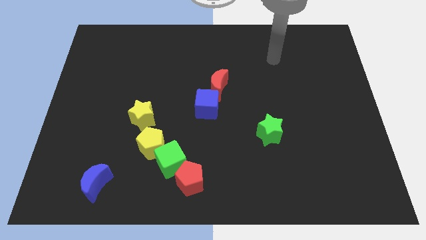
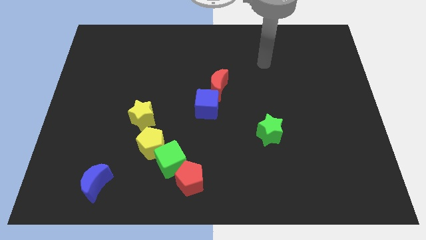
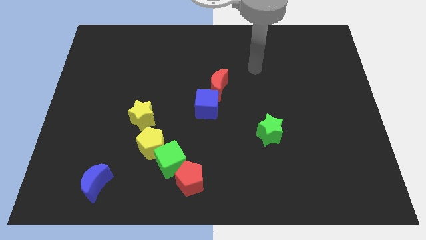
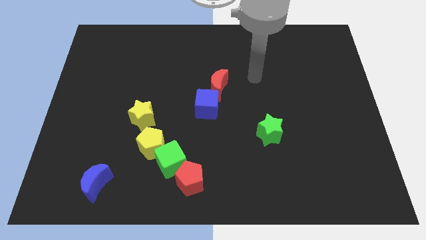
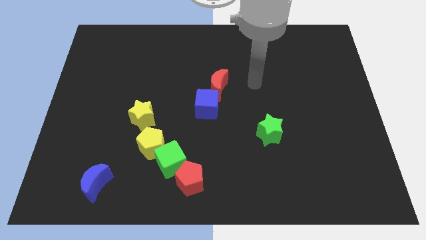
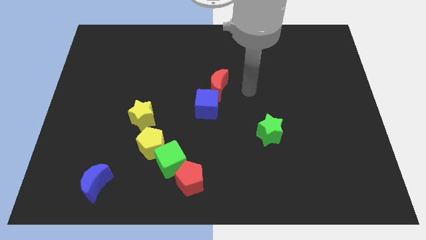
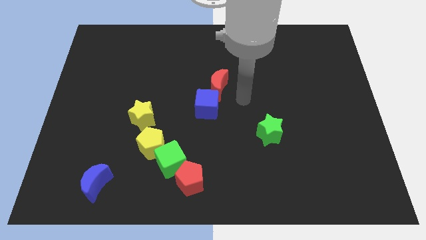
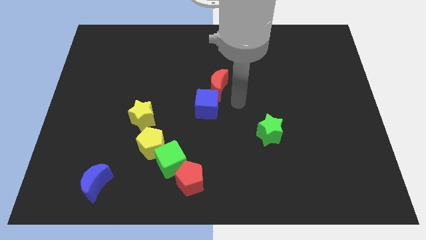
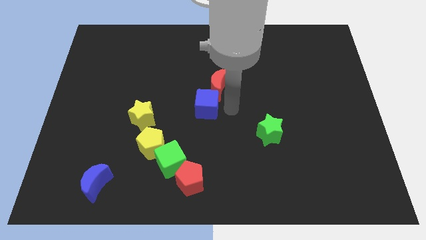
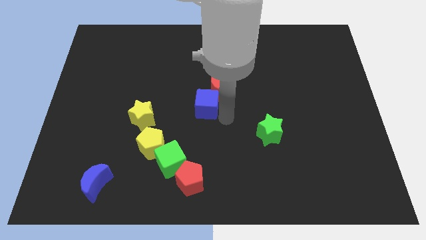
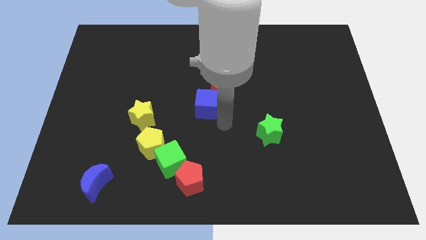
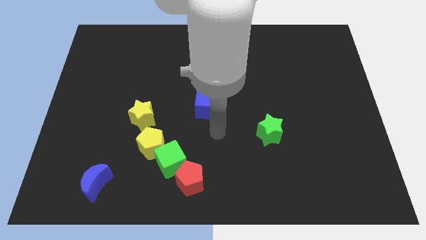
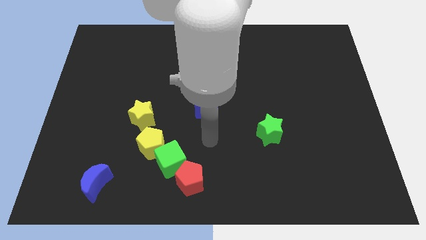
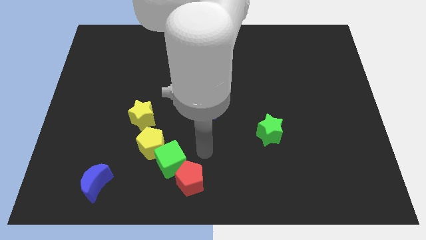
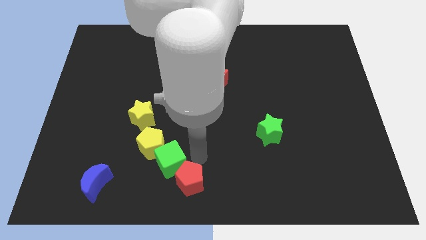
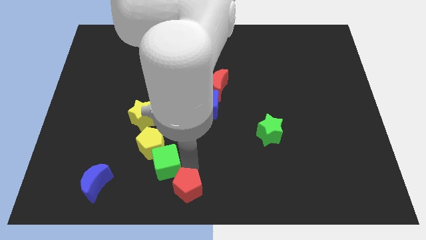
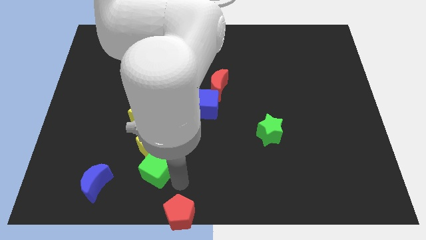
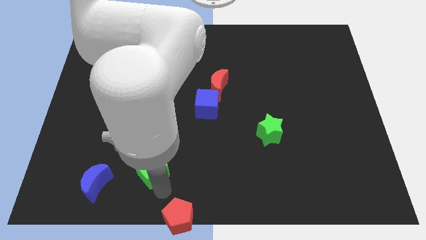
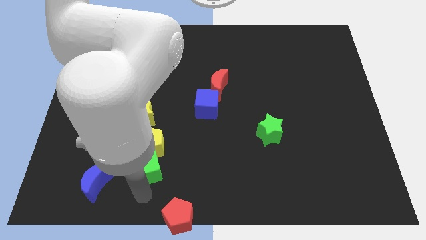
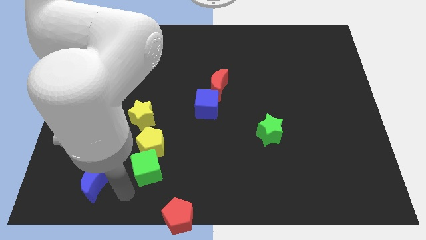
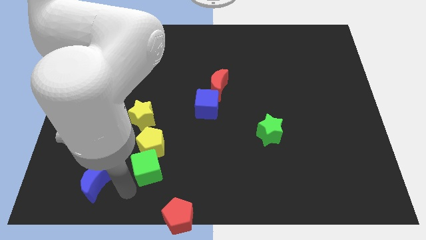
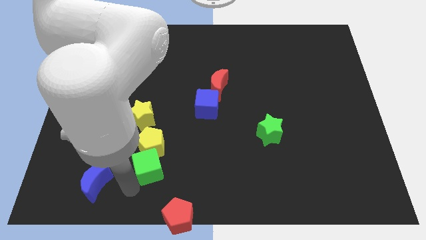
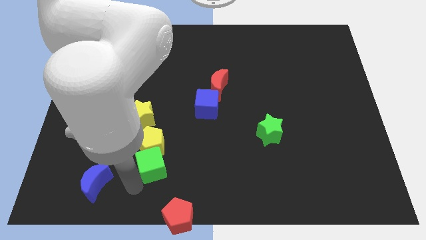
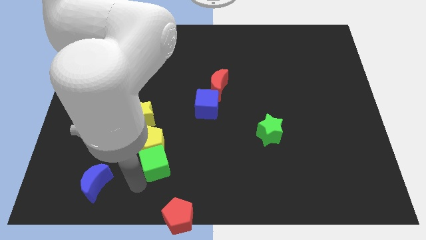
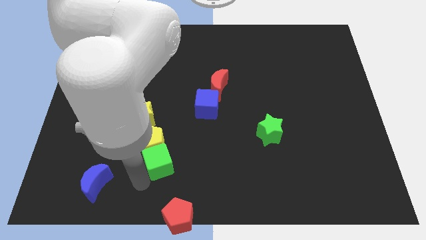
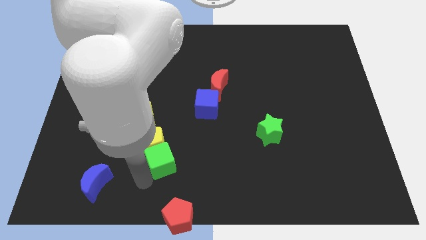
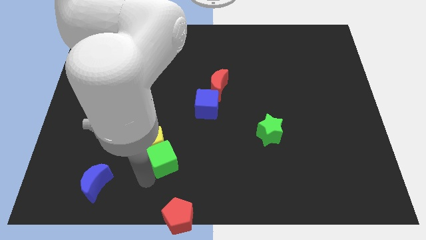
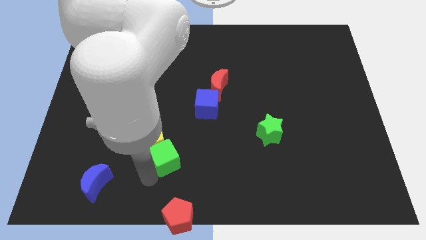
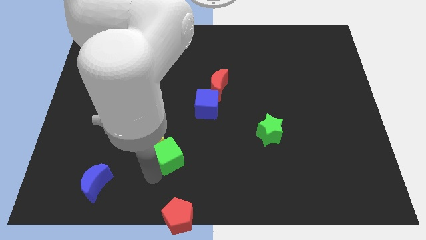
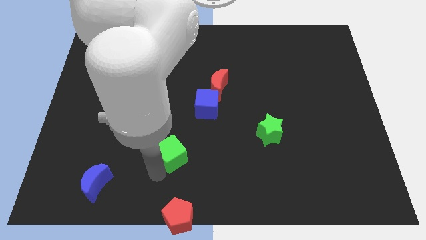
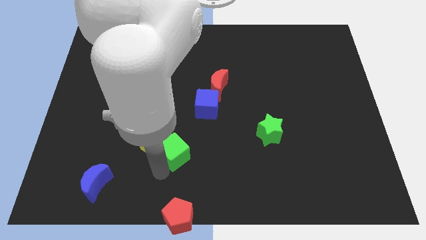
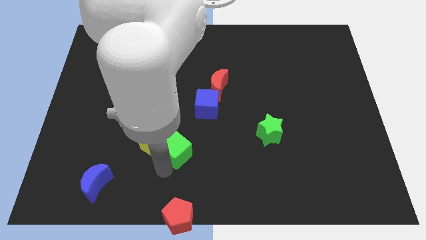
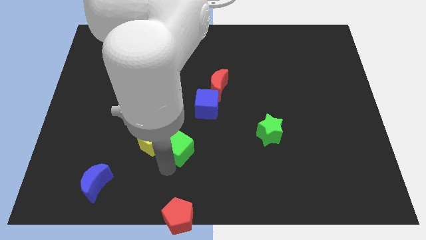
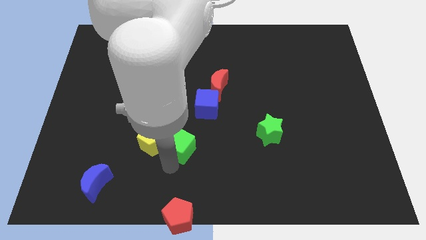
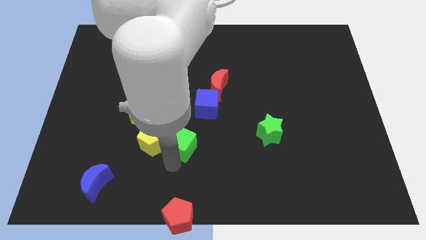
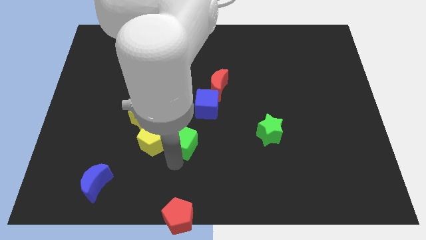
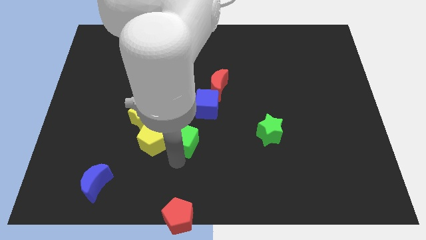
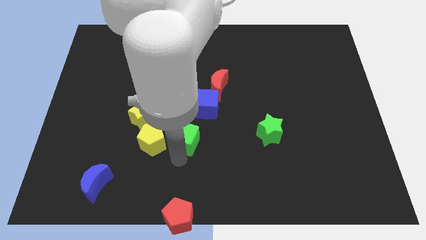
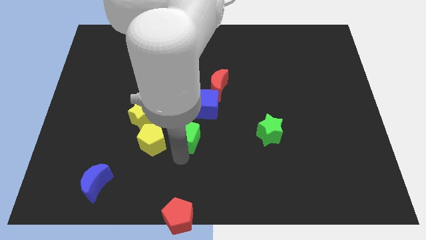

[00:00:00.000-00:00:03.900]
separate the green cube from the yellow pentagon and red pentagon

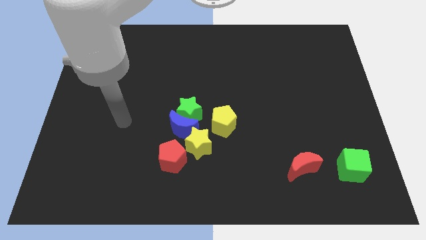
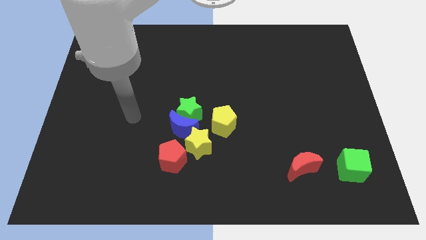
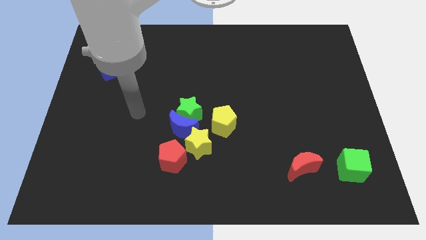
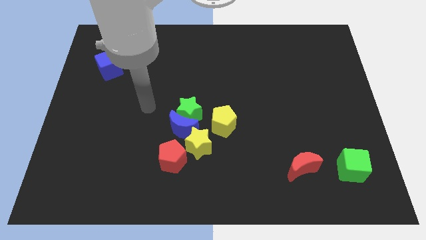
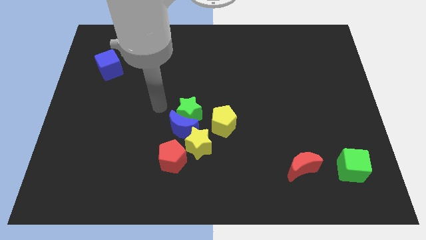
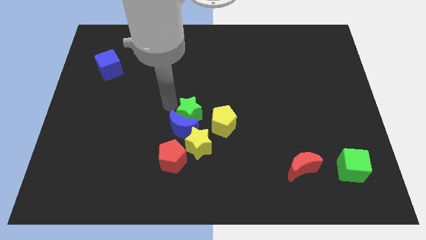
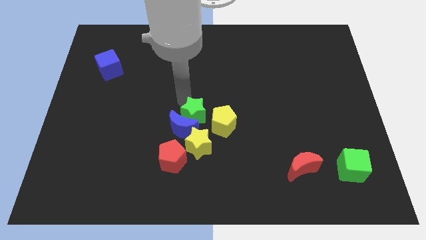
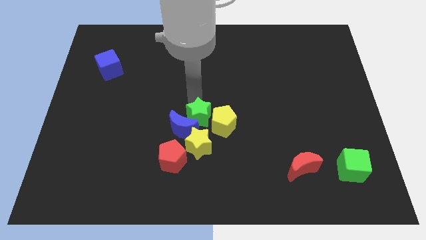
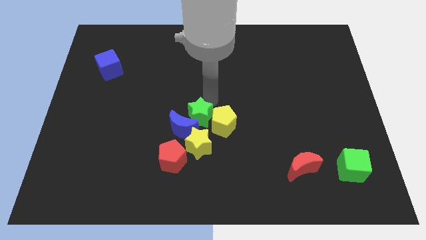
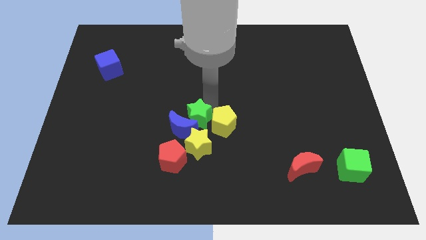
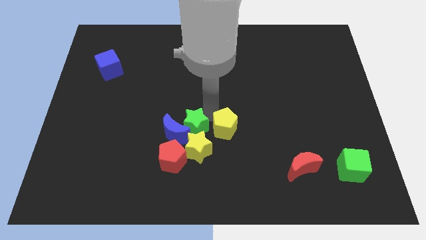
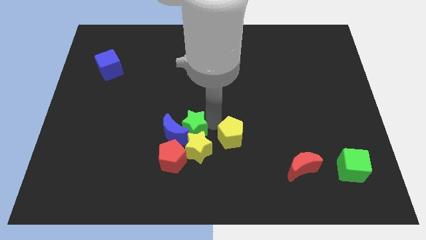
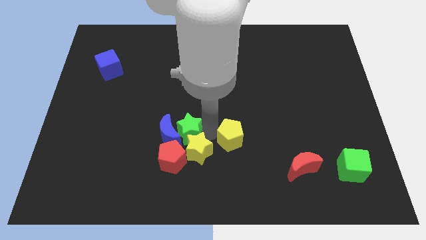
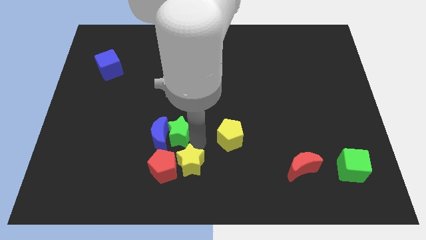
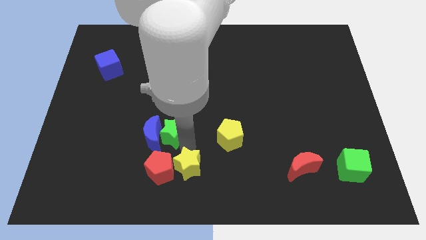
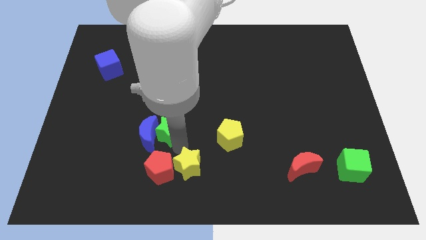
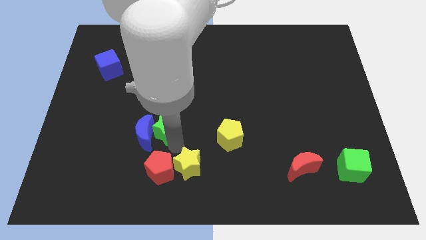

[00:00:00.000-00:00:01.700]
move the blue moon away from the clump

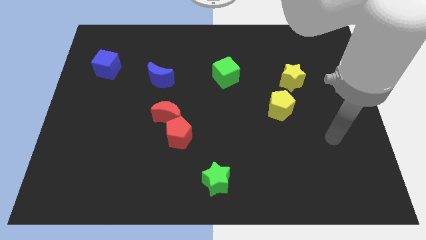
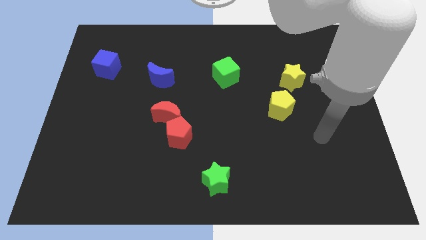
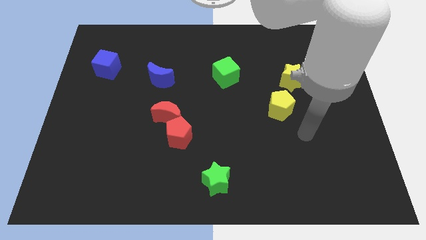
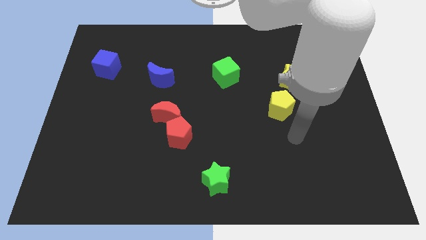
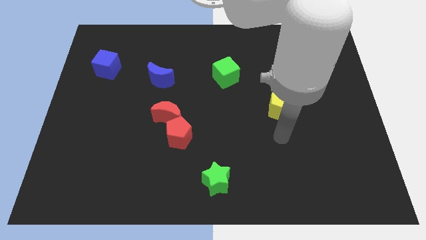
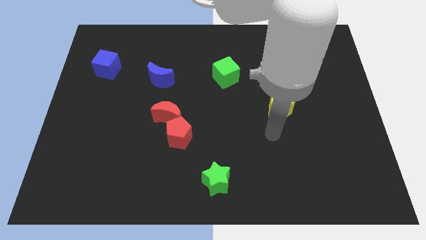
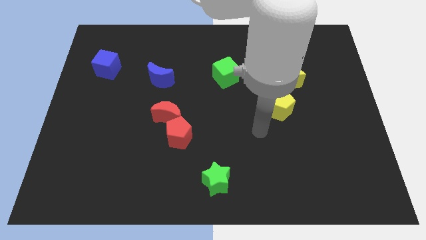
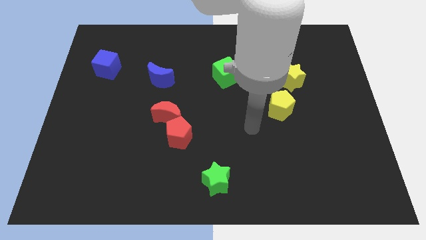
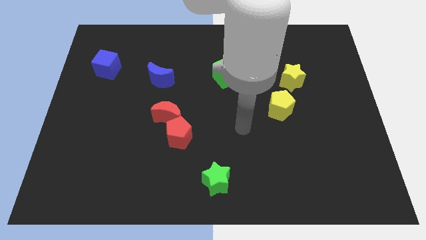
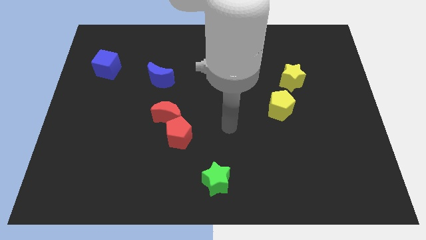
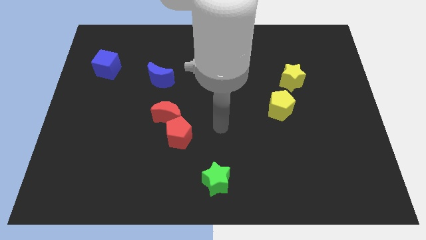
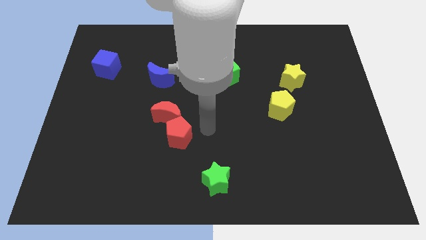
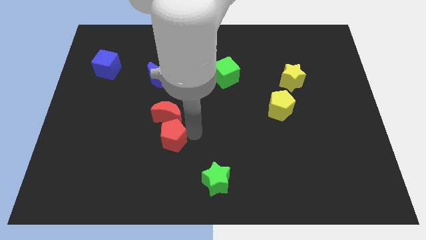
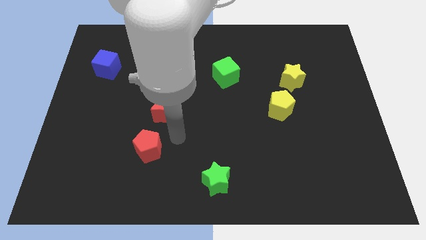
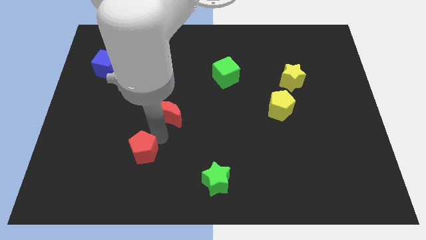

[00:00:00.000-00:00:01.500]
separate the red moon from the red pentagon

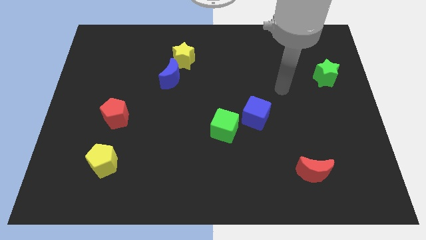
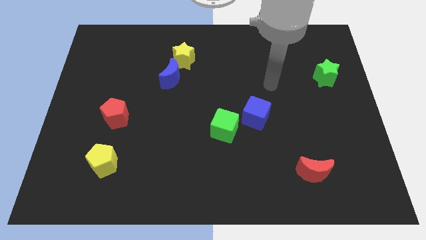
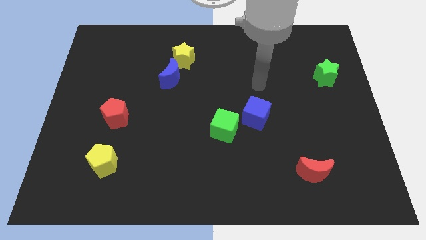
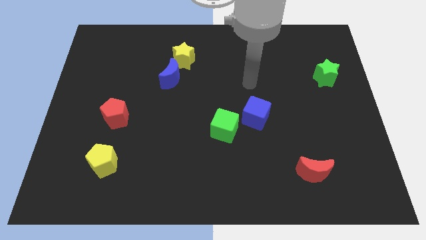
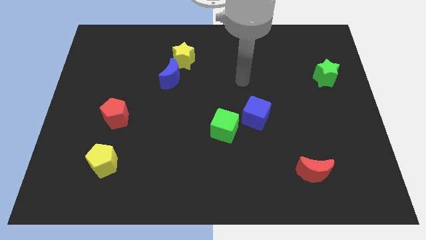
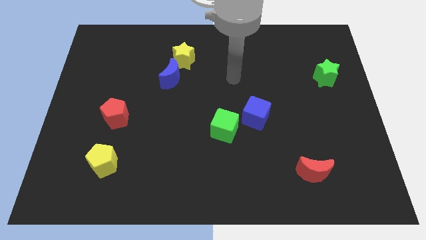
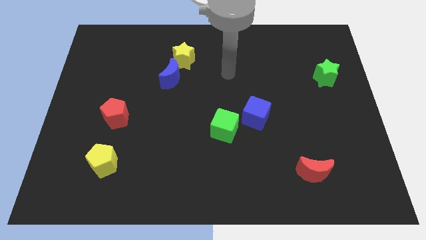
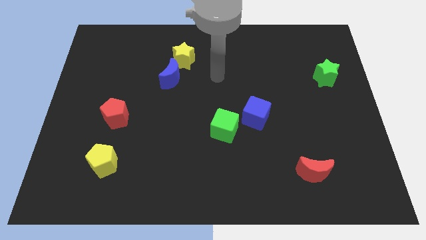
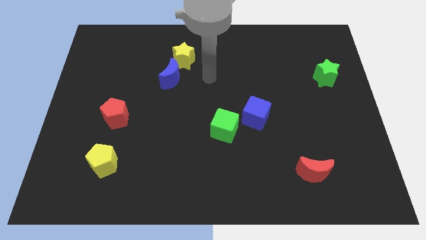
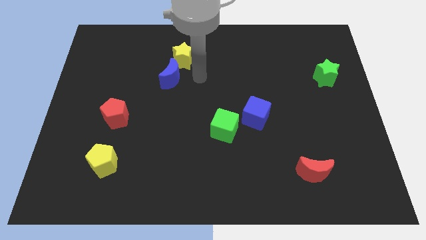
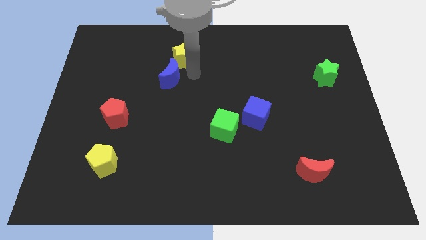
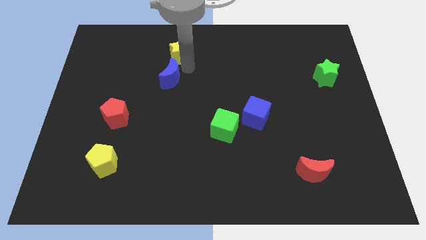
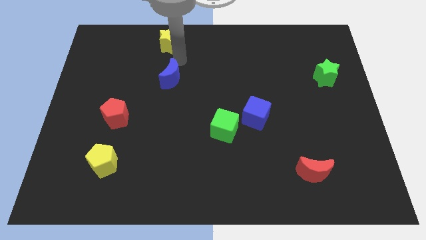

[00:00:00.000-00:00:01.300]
move the blue moon away from the yellow star

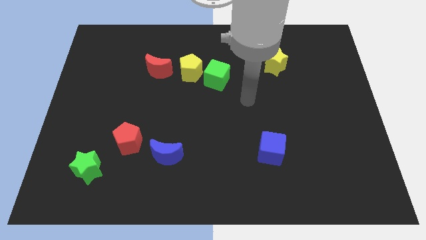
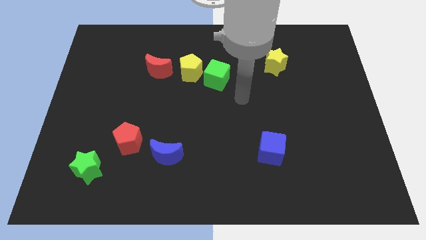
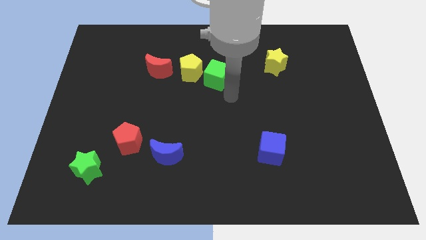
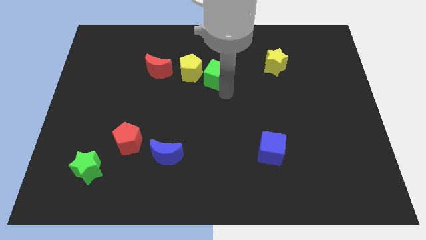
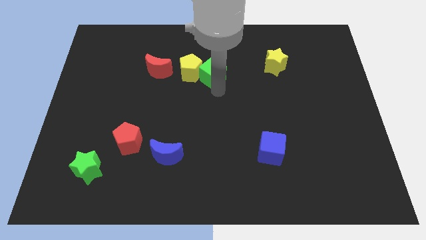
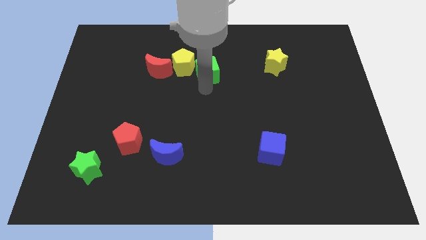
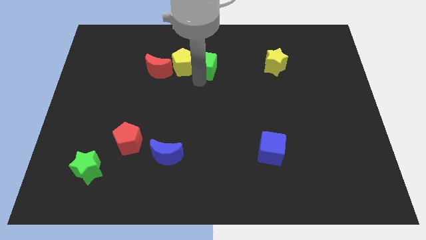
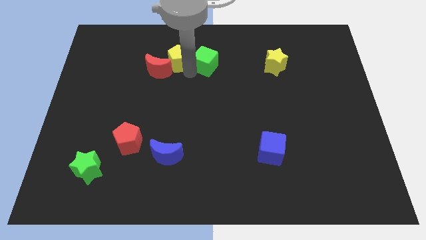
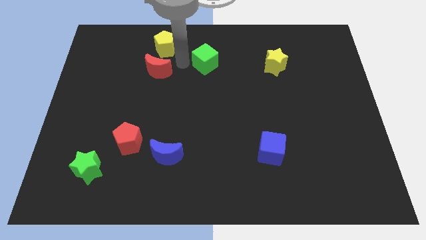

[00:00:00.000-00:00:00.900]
pull the green cube apart from the yellow pentagon
